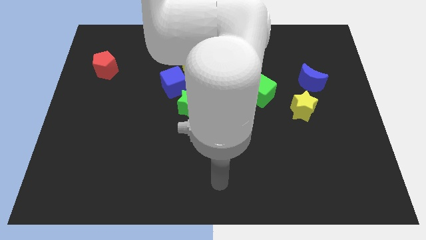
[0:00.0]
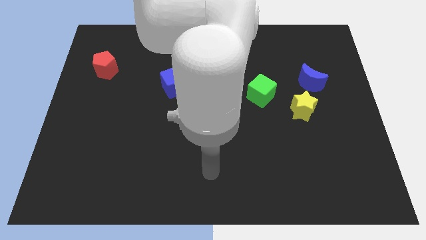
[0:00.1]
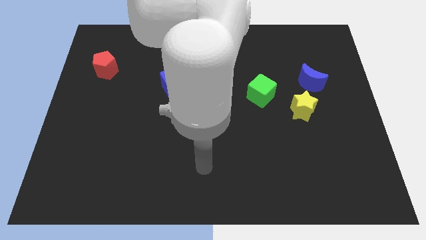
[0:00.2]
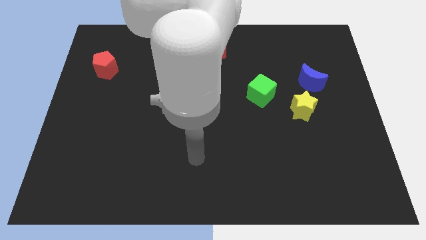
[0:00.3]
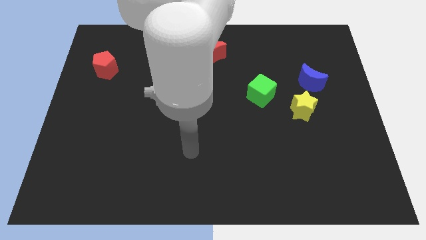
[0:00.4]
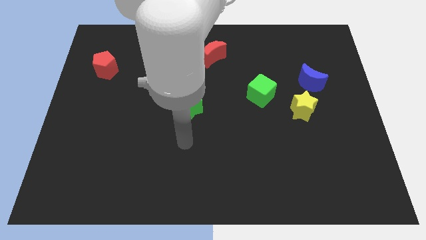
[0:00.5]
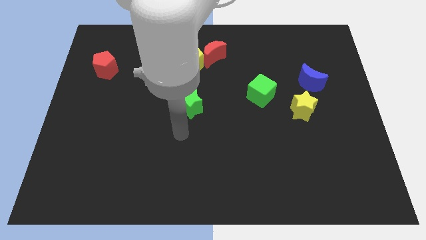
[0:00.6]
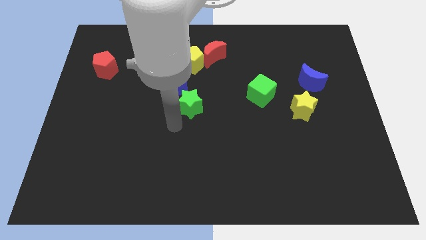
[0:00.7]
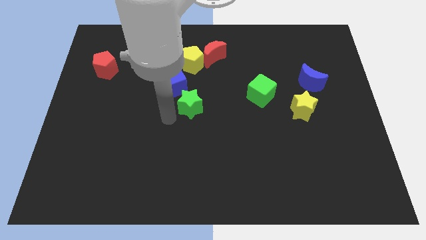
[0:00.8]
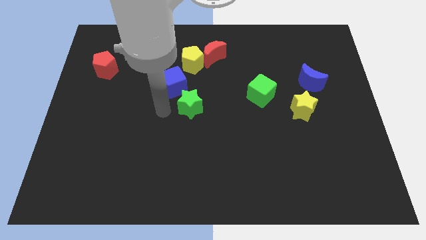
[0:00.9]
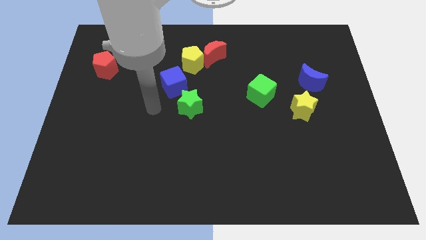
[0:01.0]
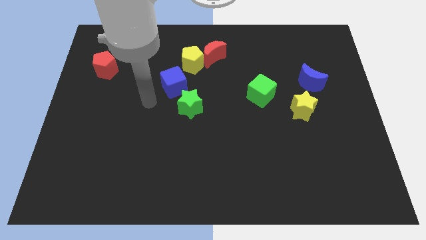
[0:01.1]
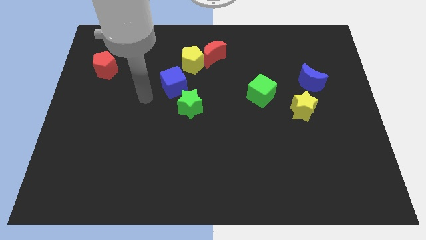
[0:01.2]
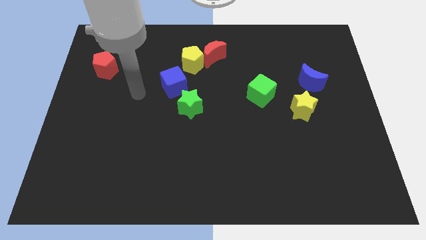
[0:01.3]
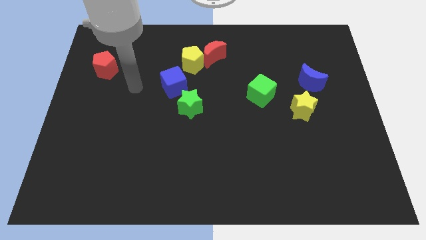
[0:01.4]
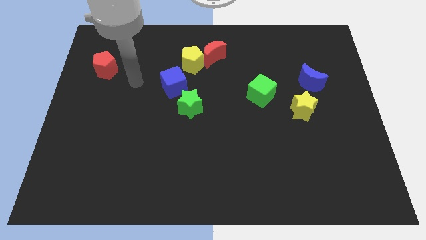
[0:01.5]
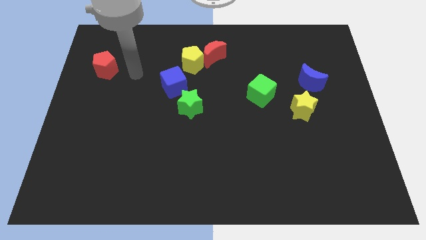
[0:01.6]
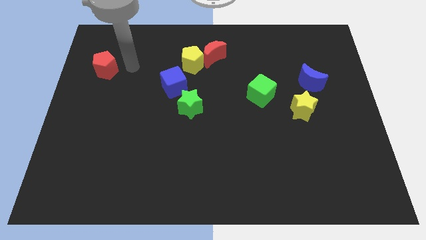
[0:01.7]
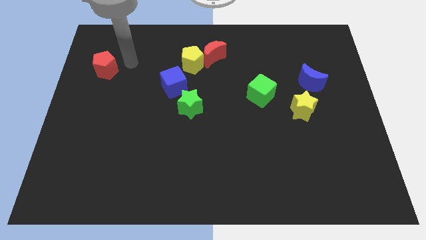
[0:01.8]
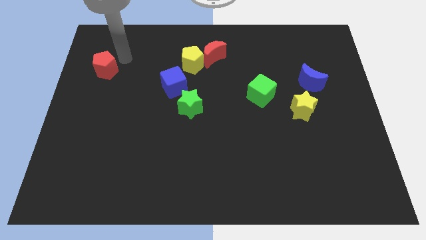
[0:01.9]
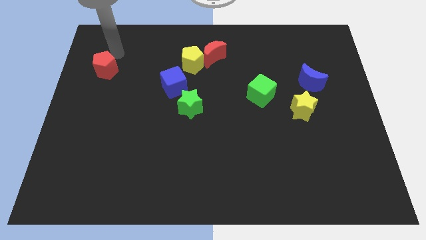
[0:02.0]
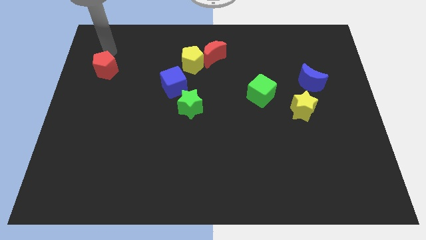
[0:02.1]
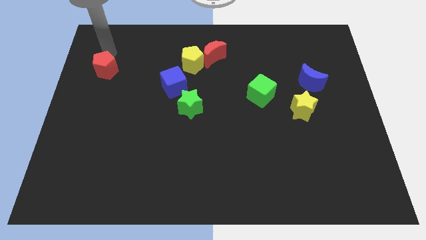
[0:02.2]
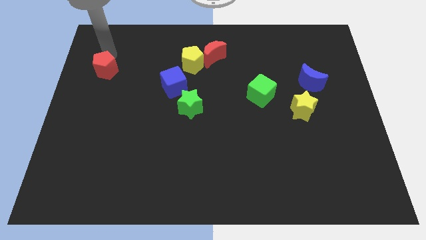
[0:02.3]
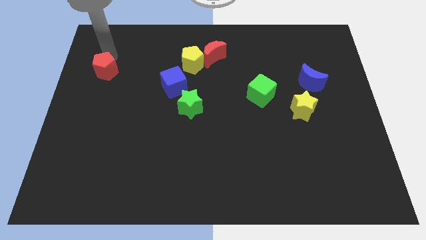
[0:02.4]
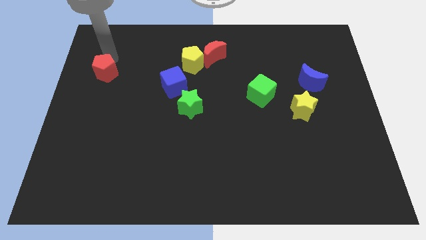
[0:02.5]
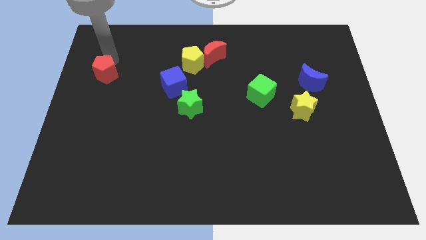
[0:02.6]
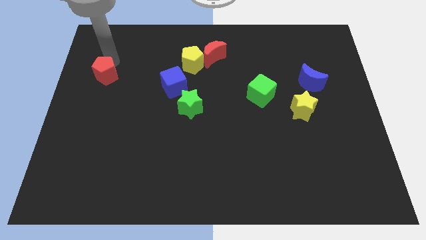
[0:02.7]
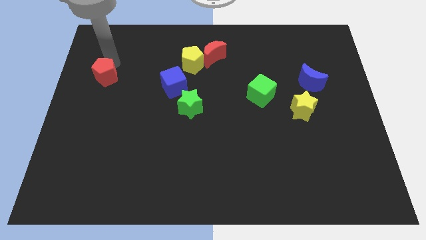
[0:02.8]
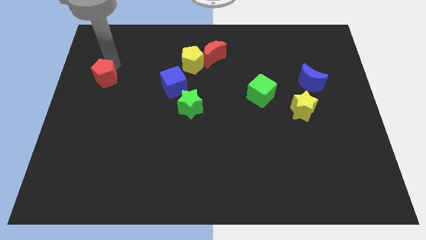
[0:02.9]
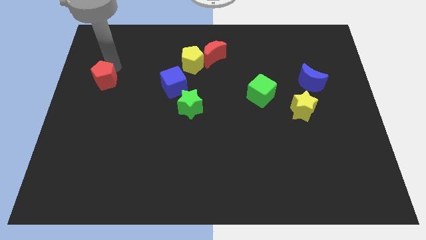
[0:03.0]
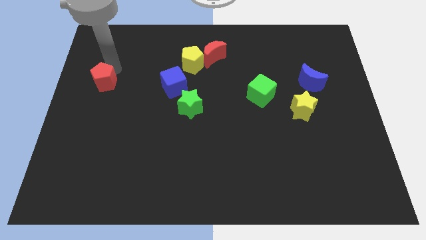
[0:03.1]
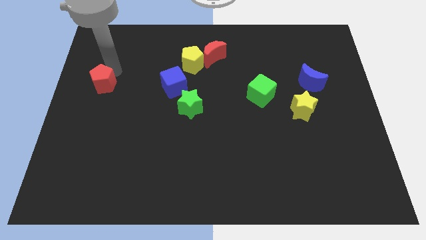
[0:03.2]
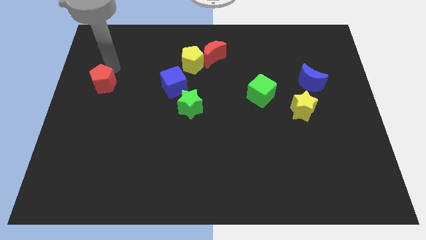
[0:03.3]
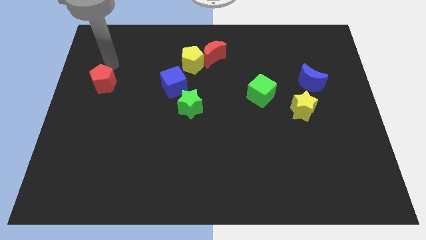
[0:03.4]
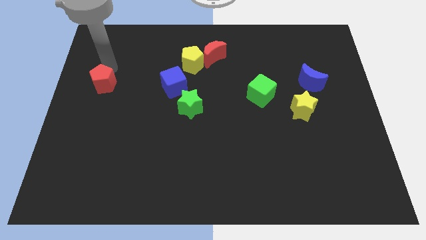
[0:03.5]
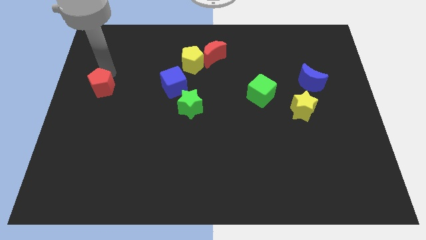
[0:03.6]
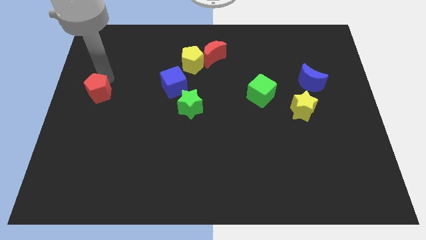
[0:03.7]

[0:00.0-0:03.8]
push the red pentagon downwards slightly

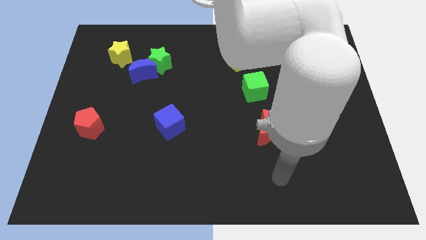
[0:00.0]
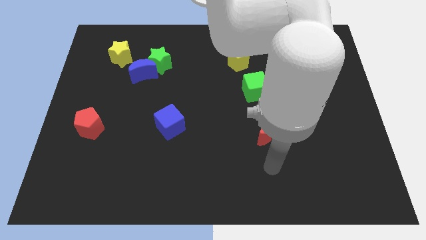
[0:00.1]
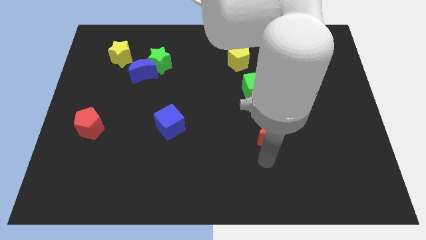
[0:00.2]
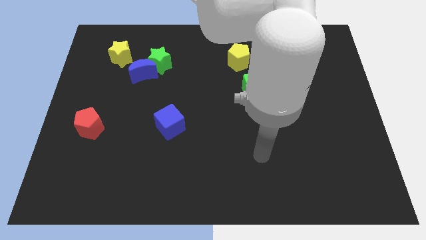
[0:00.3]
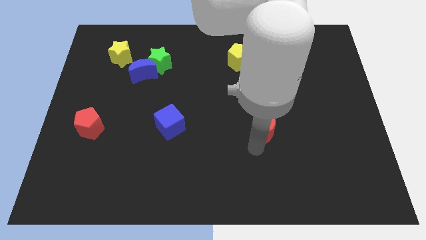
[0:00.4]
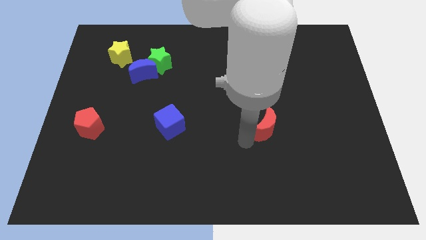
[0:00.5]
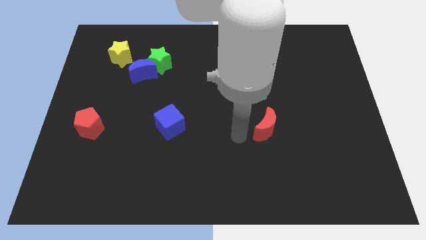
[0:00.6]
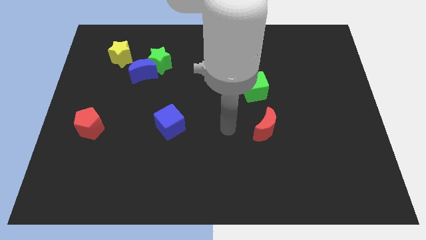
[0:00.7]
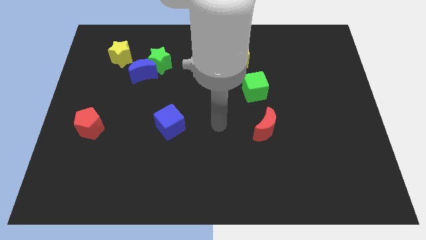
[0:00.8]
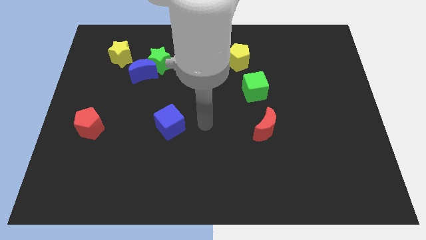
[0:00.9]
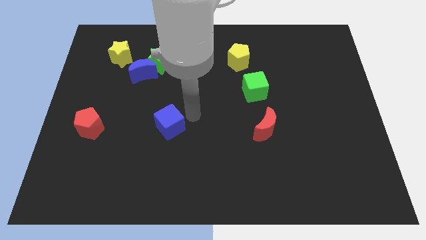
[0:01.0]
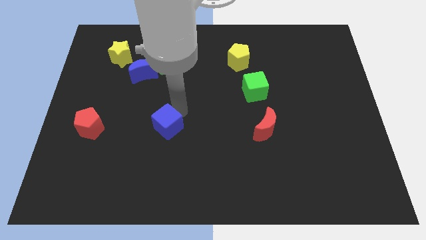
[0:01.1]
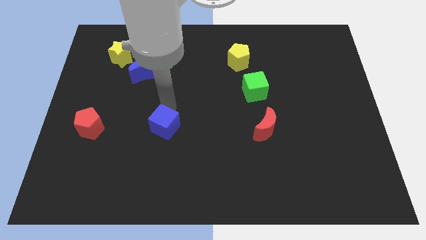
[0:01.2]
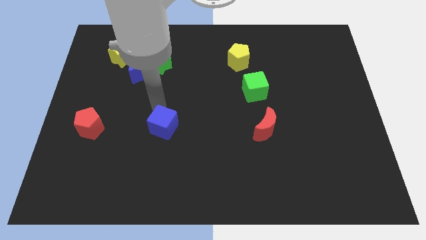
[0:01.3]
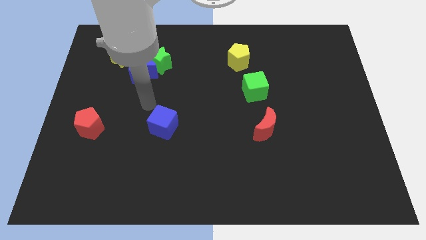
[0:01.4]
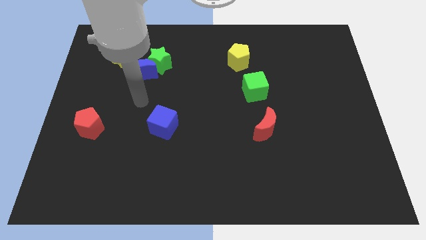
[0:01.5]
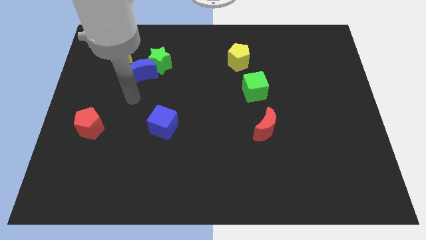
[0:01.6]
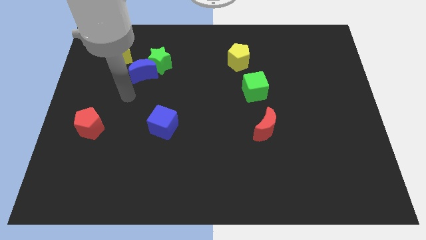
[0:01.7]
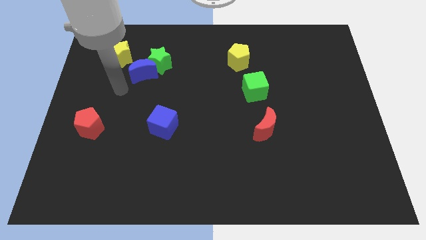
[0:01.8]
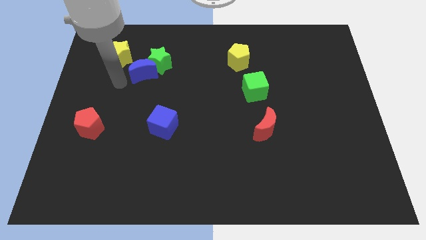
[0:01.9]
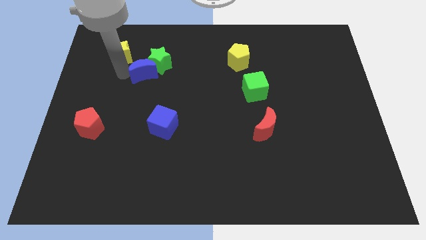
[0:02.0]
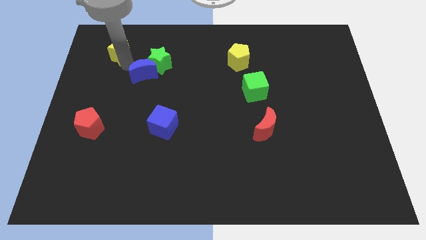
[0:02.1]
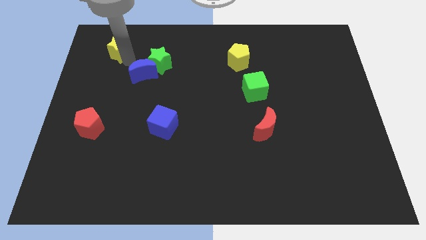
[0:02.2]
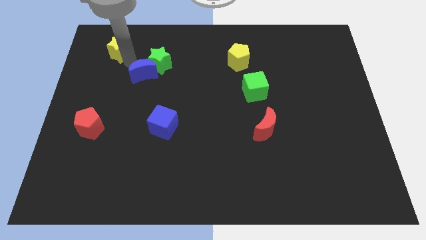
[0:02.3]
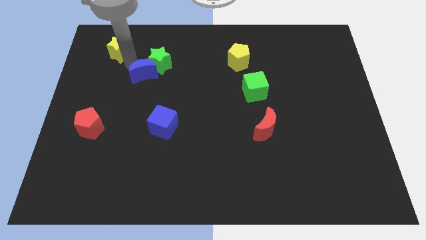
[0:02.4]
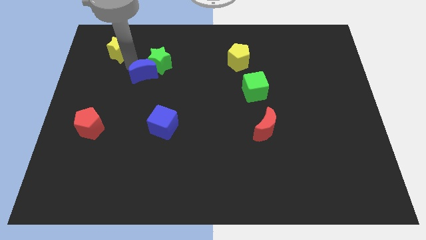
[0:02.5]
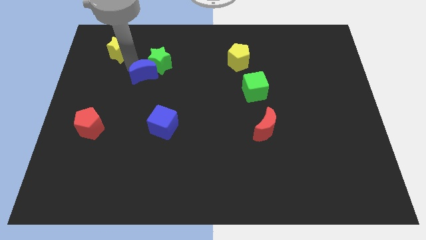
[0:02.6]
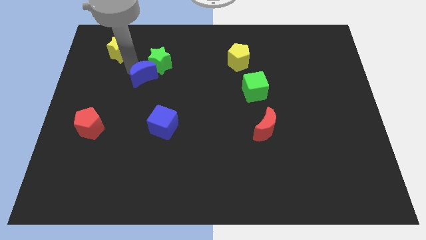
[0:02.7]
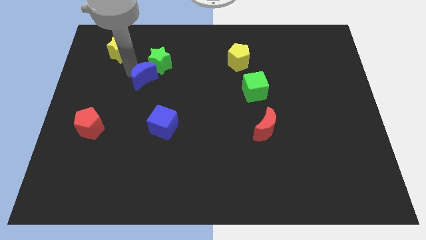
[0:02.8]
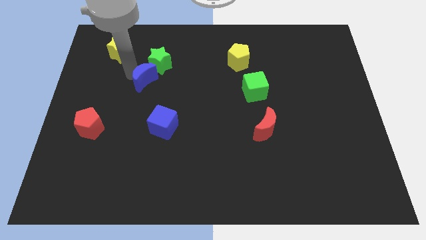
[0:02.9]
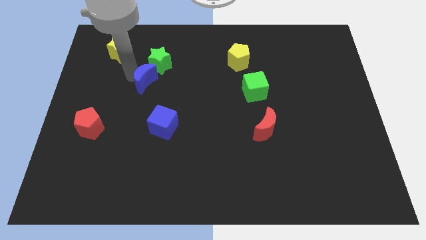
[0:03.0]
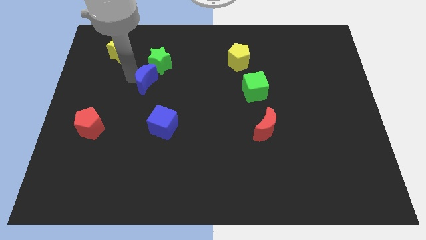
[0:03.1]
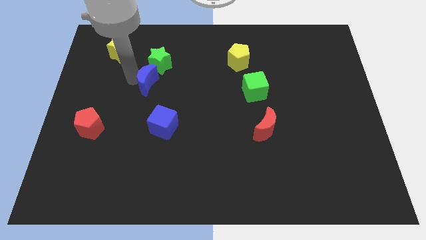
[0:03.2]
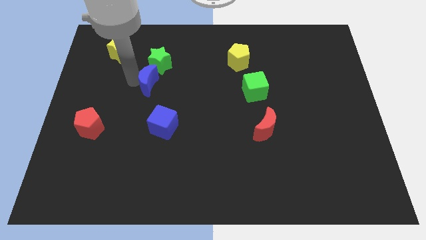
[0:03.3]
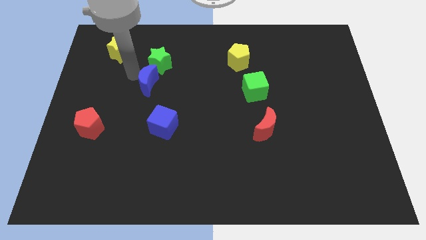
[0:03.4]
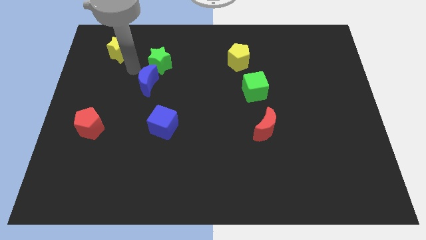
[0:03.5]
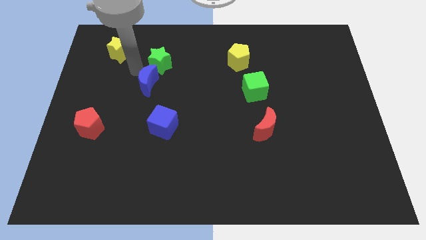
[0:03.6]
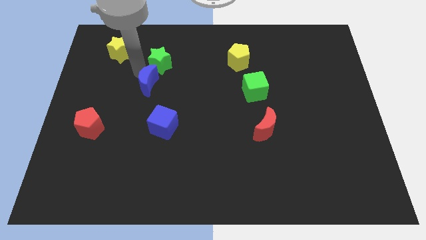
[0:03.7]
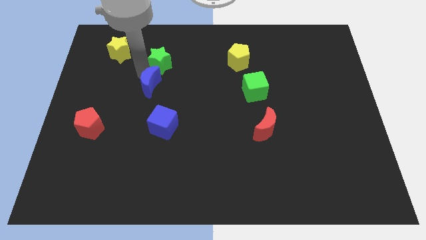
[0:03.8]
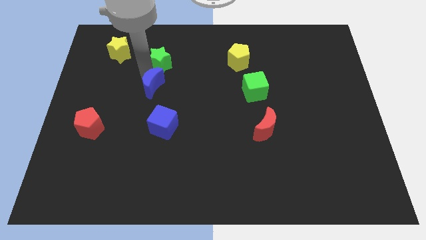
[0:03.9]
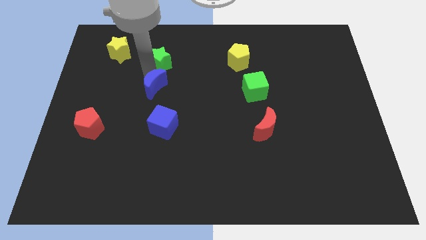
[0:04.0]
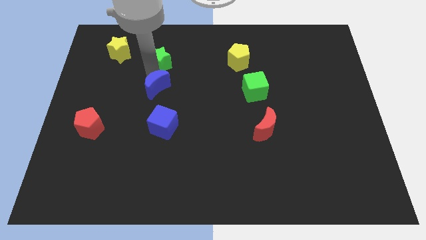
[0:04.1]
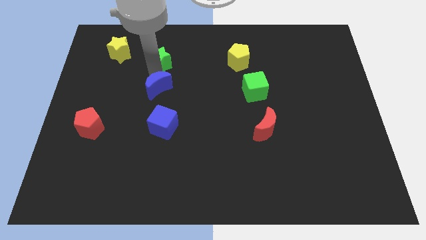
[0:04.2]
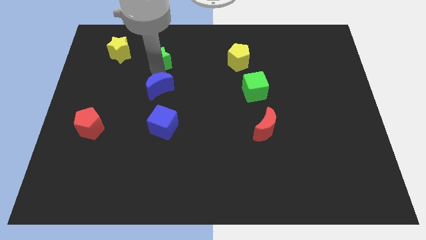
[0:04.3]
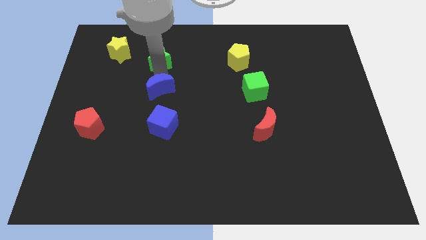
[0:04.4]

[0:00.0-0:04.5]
push the blue moon diagonally down and right a little bit
